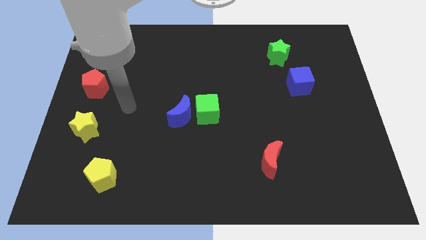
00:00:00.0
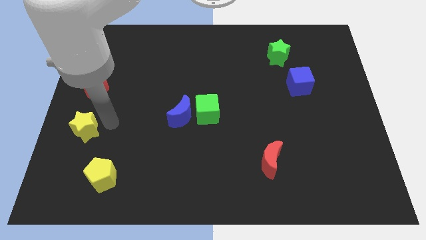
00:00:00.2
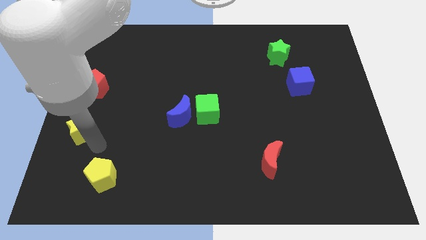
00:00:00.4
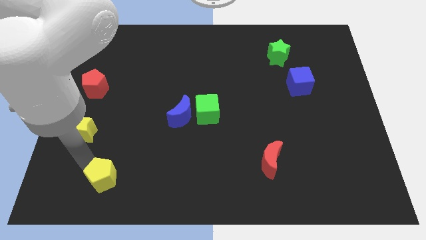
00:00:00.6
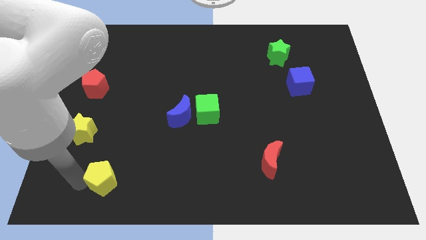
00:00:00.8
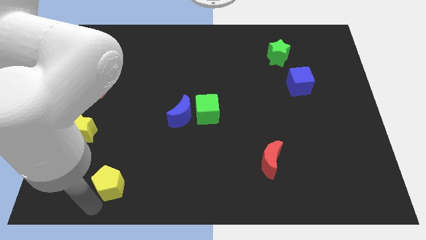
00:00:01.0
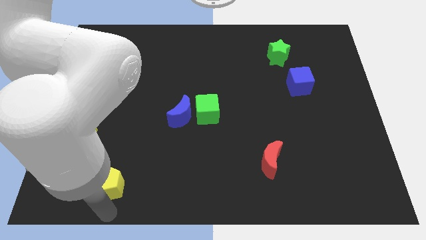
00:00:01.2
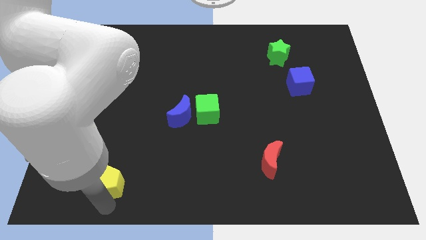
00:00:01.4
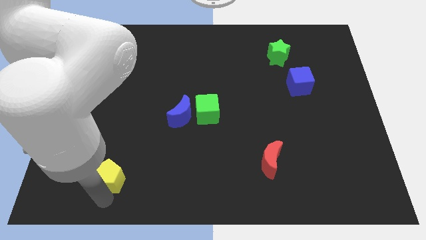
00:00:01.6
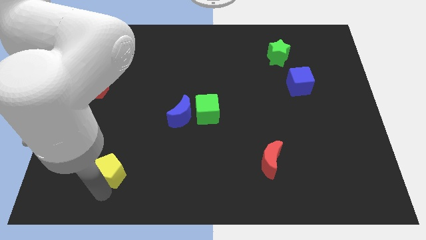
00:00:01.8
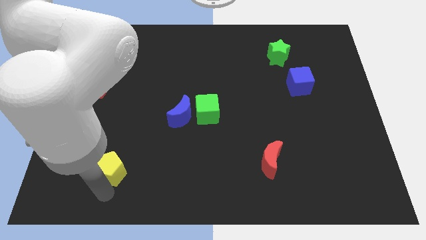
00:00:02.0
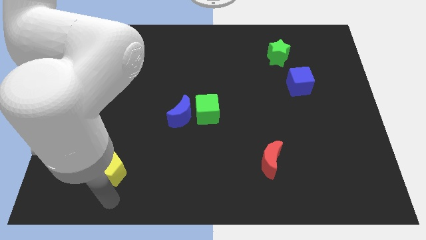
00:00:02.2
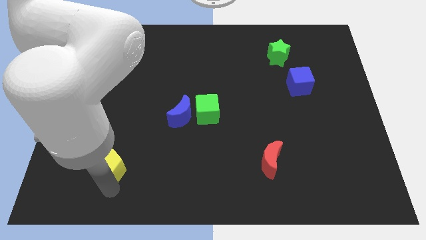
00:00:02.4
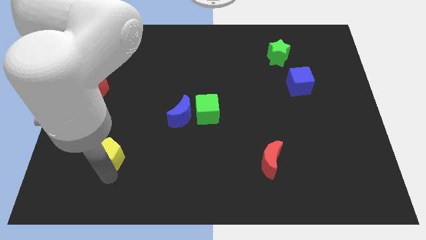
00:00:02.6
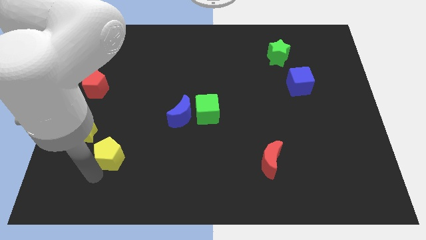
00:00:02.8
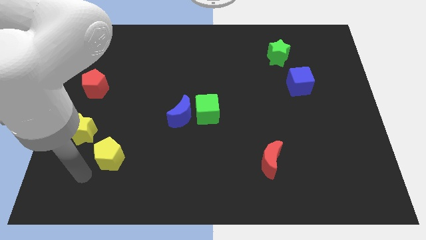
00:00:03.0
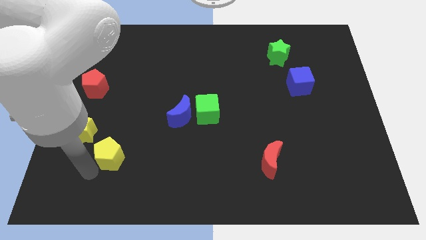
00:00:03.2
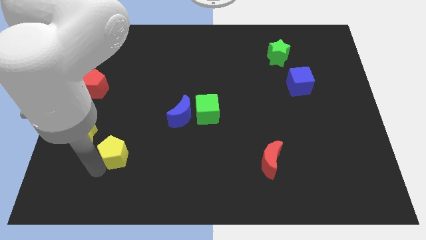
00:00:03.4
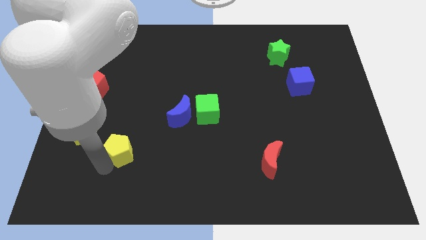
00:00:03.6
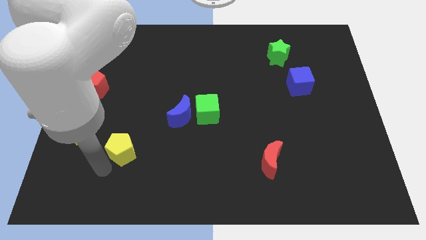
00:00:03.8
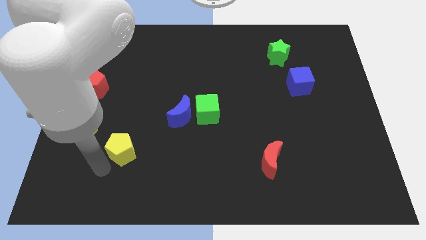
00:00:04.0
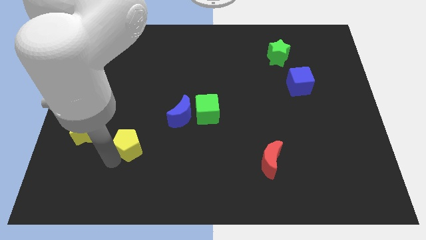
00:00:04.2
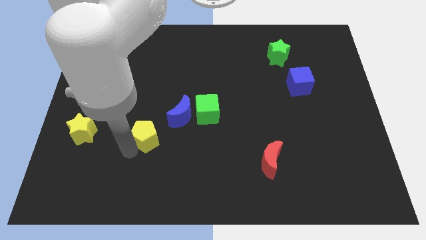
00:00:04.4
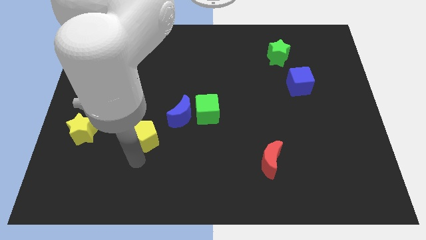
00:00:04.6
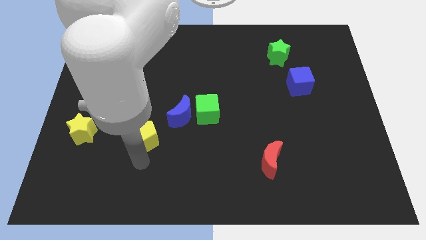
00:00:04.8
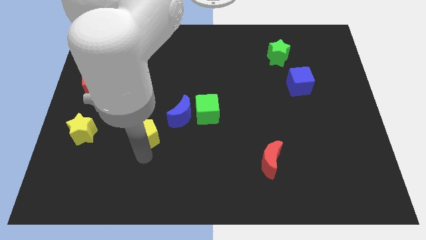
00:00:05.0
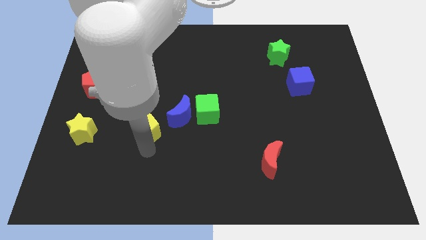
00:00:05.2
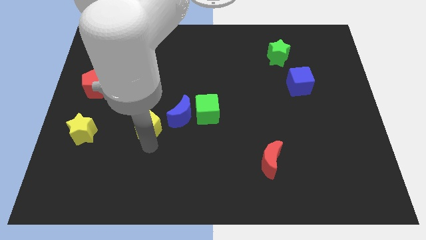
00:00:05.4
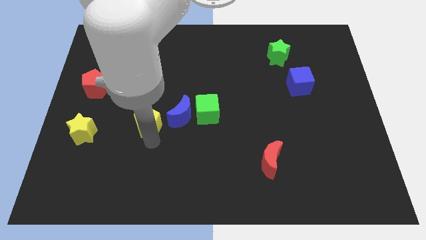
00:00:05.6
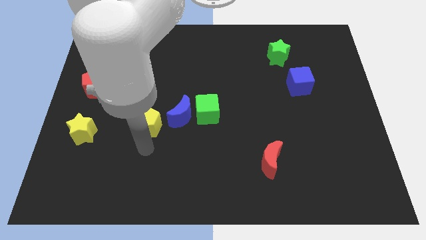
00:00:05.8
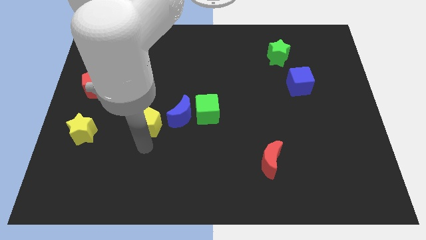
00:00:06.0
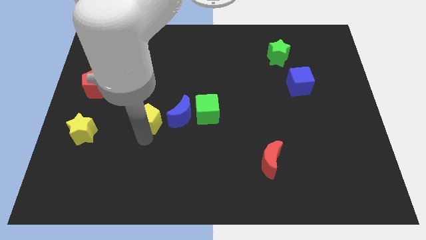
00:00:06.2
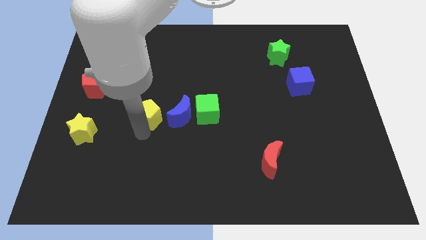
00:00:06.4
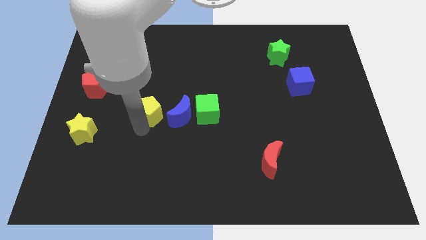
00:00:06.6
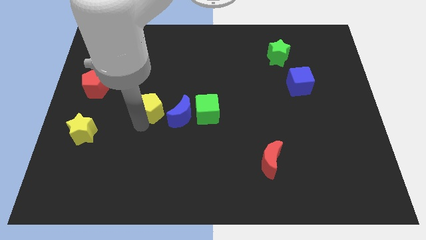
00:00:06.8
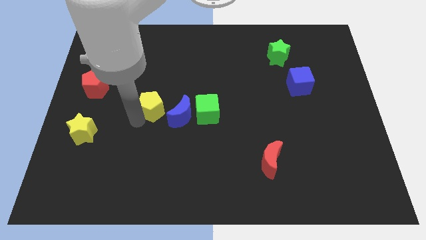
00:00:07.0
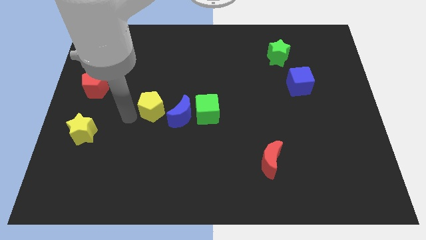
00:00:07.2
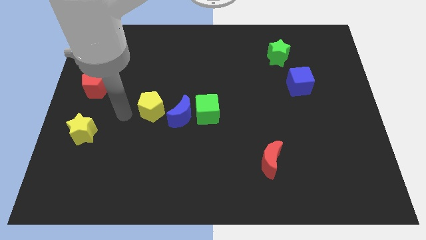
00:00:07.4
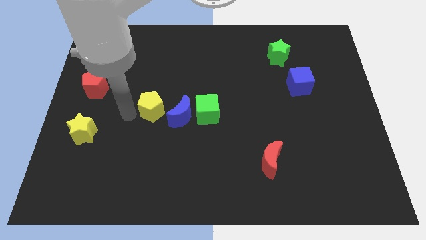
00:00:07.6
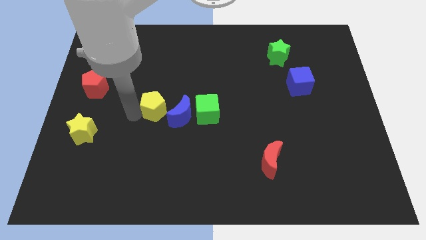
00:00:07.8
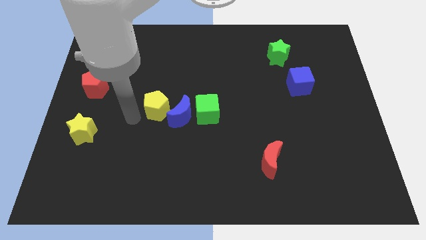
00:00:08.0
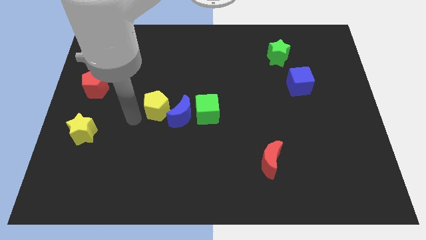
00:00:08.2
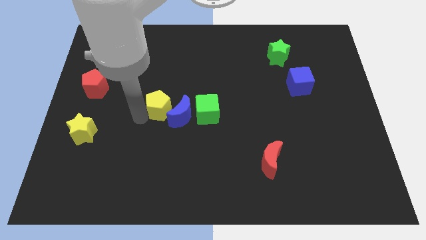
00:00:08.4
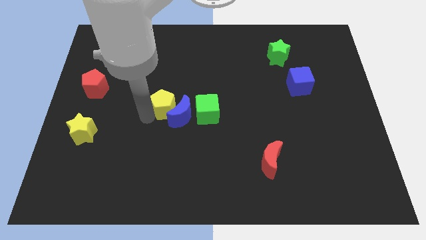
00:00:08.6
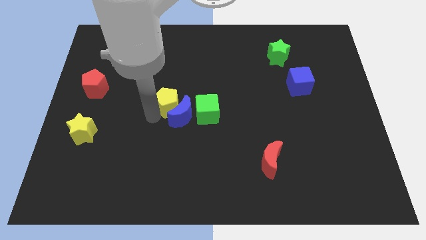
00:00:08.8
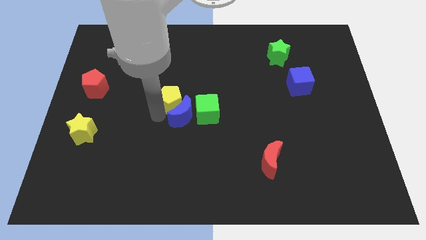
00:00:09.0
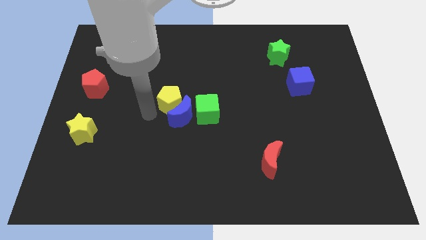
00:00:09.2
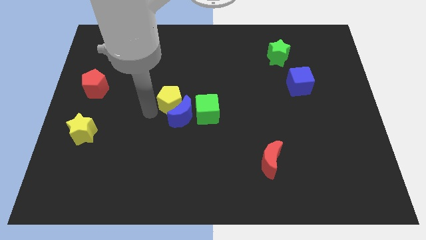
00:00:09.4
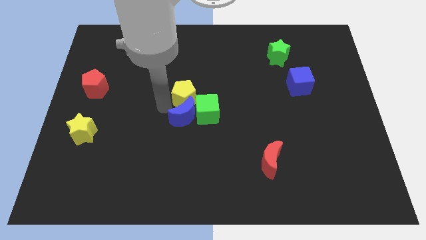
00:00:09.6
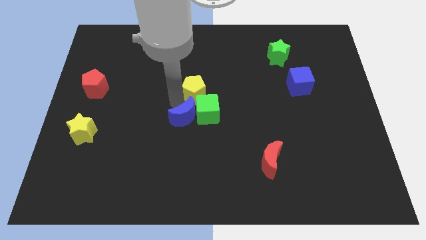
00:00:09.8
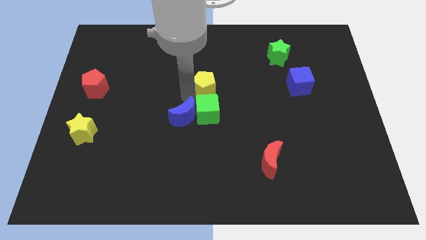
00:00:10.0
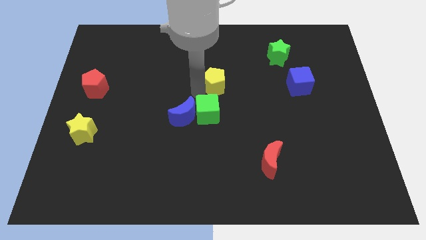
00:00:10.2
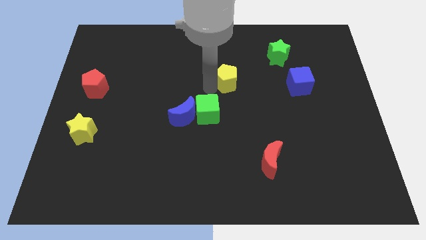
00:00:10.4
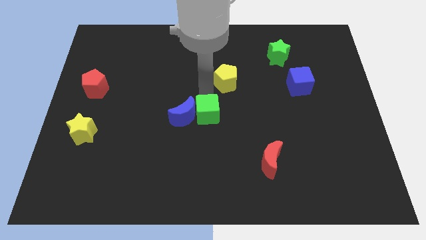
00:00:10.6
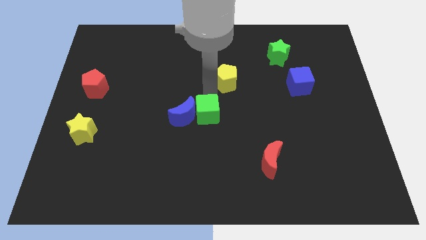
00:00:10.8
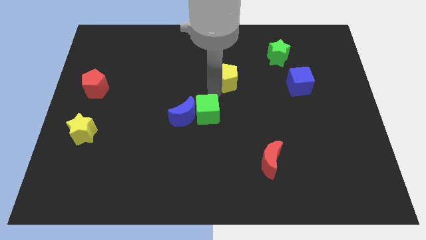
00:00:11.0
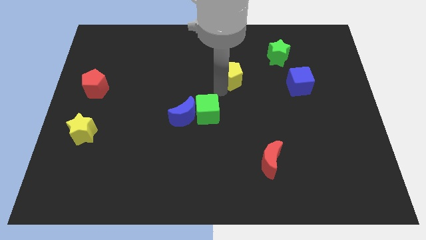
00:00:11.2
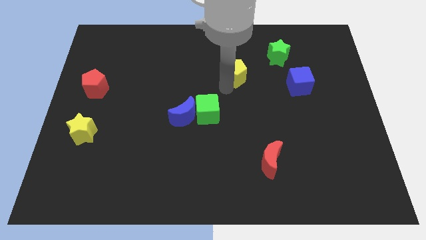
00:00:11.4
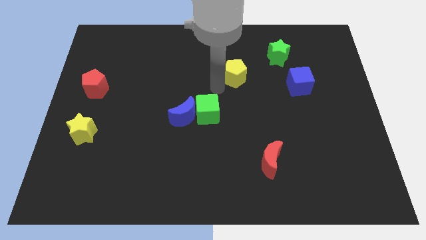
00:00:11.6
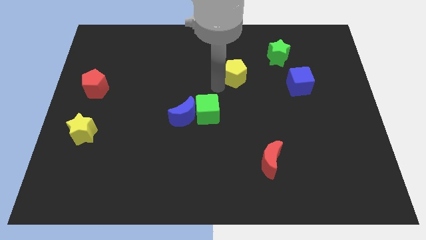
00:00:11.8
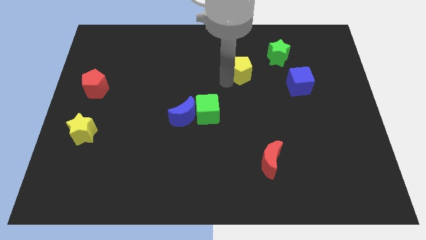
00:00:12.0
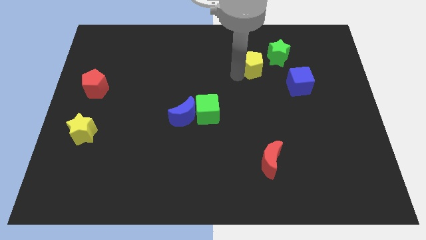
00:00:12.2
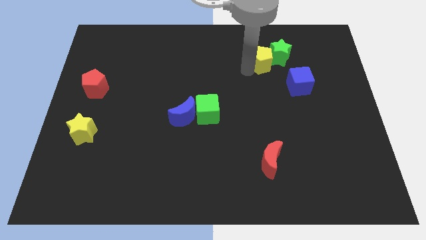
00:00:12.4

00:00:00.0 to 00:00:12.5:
put the yellow pentagon to the green star

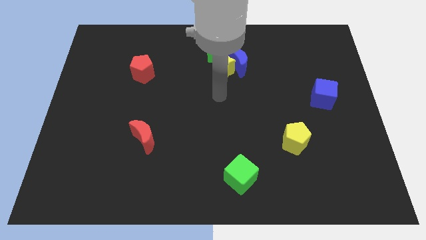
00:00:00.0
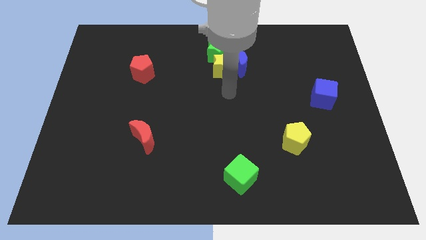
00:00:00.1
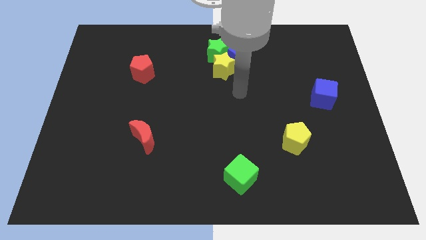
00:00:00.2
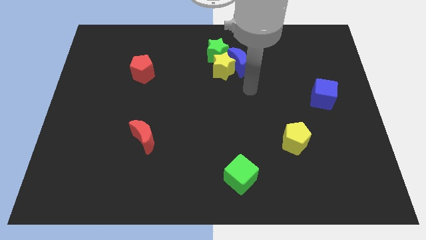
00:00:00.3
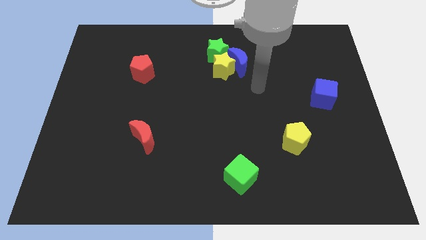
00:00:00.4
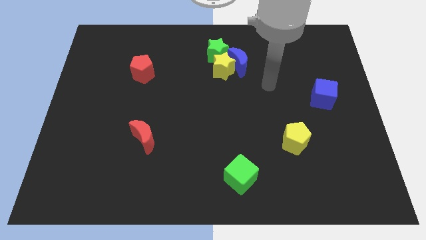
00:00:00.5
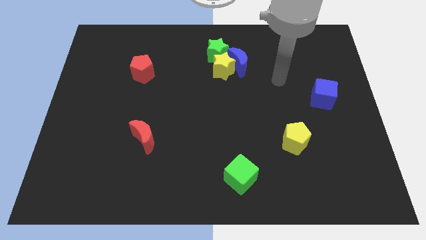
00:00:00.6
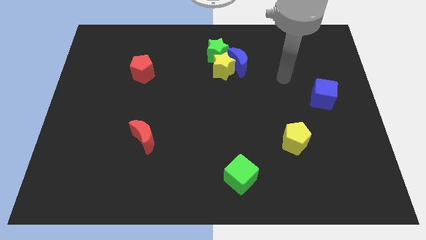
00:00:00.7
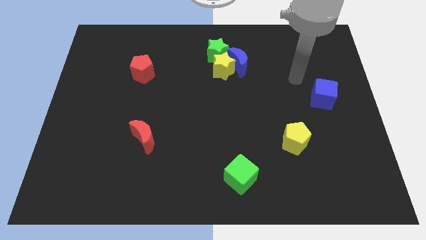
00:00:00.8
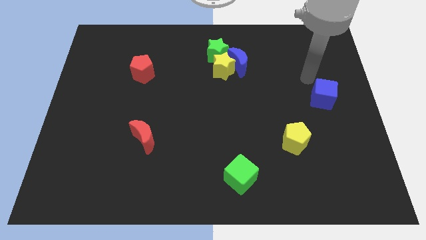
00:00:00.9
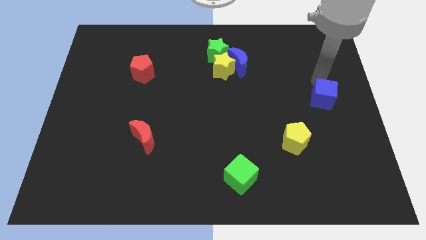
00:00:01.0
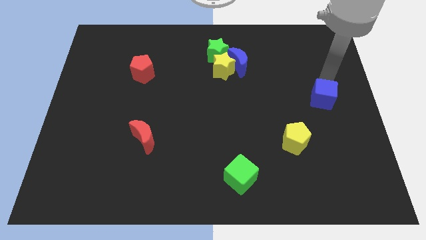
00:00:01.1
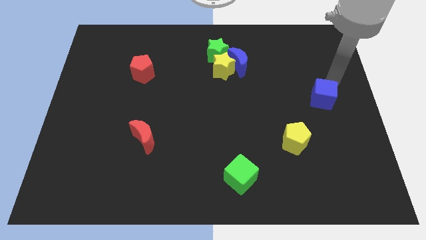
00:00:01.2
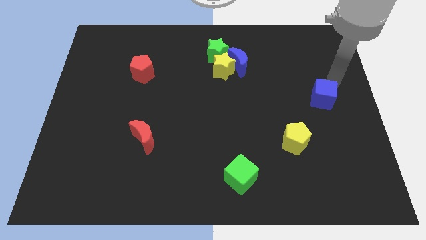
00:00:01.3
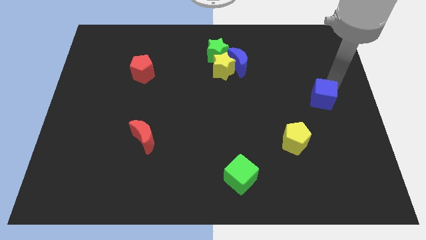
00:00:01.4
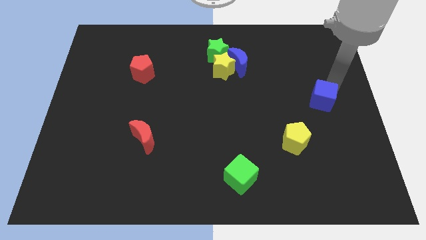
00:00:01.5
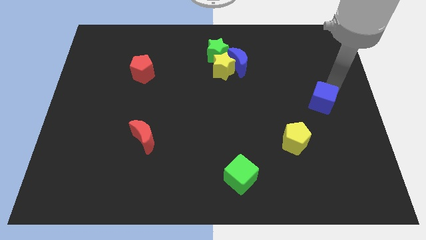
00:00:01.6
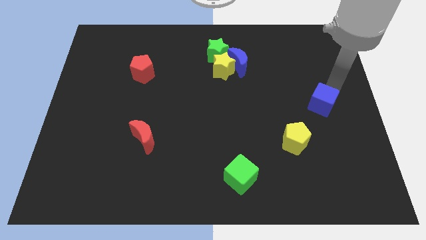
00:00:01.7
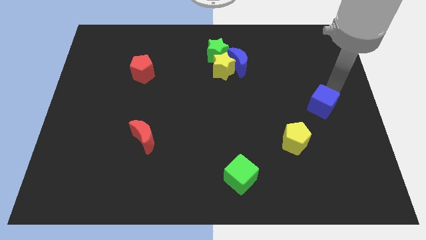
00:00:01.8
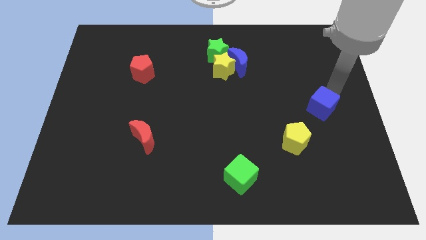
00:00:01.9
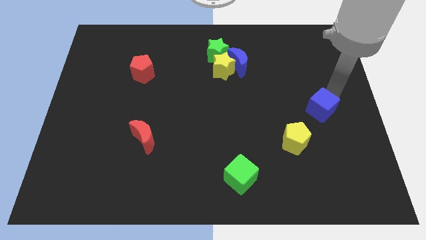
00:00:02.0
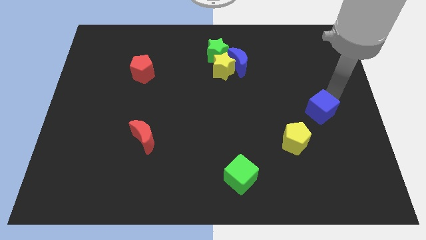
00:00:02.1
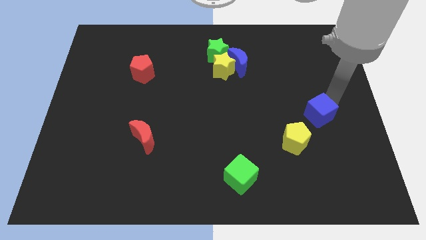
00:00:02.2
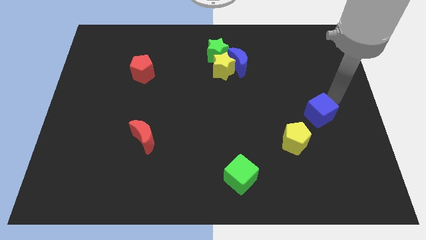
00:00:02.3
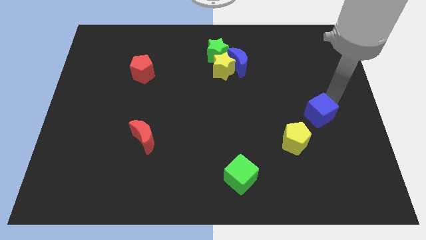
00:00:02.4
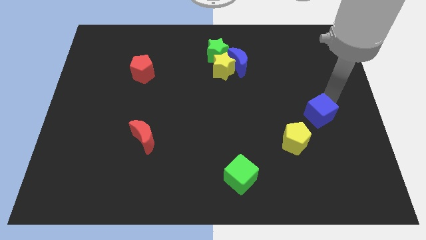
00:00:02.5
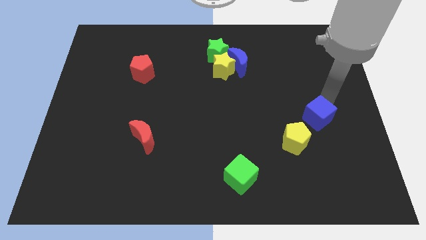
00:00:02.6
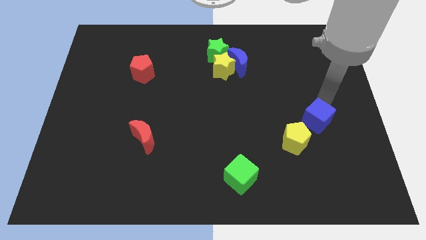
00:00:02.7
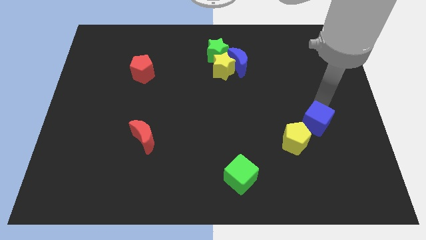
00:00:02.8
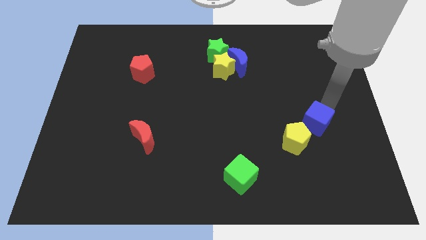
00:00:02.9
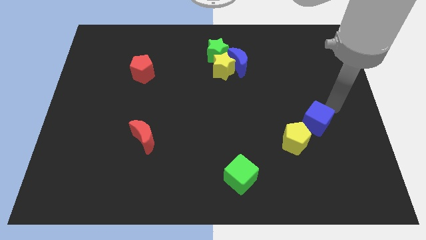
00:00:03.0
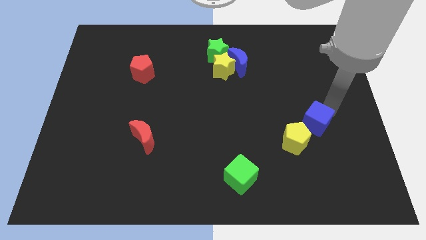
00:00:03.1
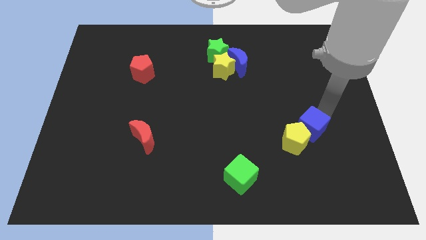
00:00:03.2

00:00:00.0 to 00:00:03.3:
slide the blue cube to the yellow pentagon
